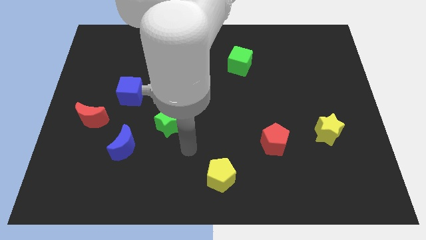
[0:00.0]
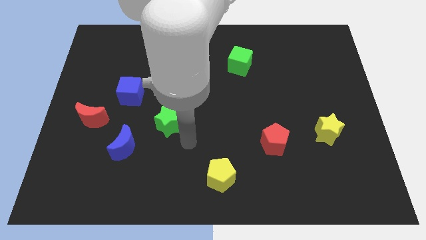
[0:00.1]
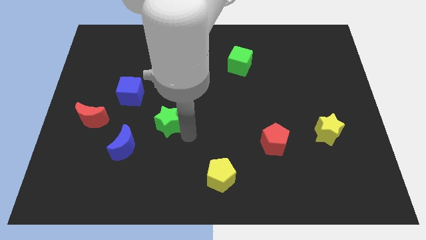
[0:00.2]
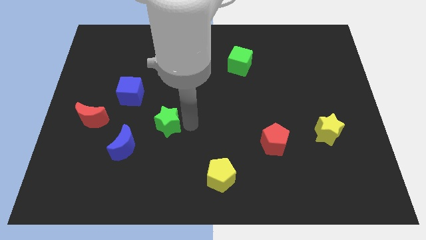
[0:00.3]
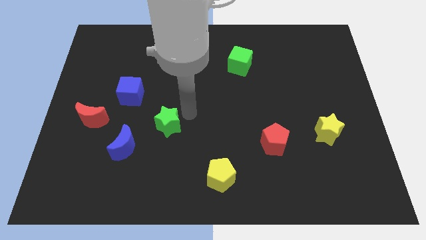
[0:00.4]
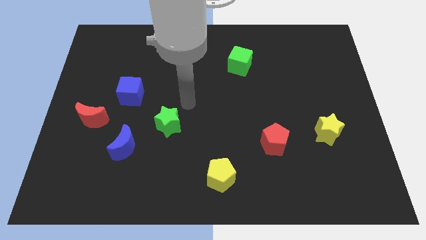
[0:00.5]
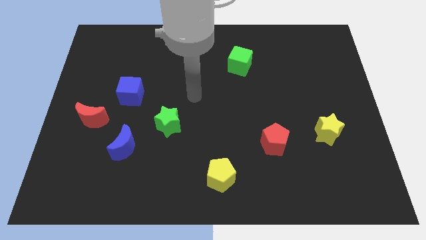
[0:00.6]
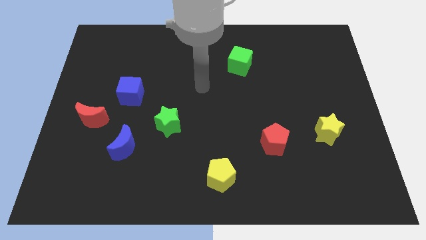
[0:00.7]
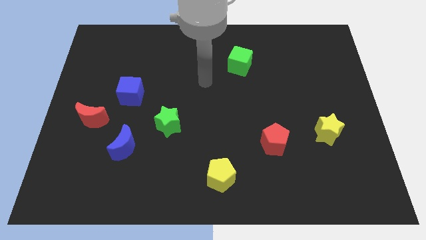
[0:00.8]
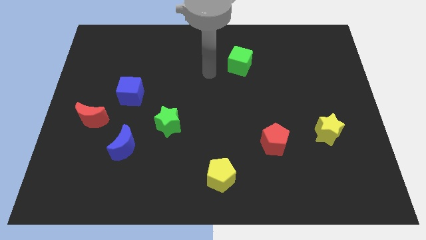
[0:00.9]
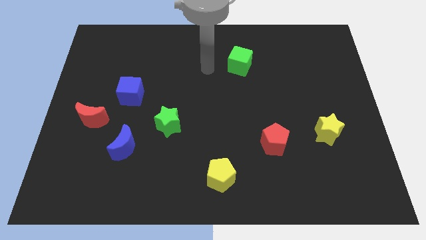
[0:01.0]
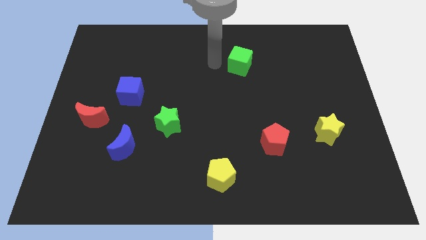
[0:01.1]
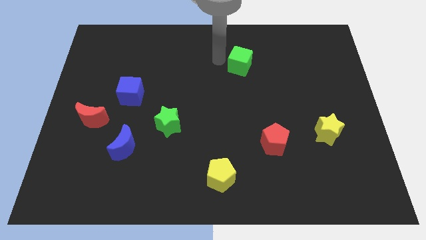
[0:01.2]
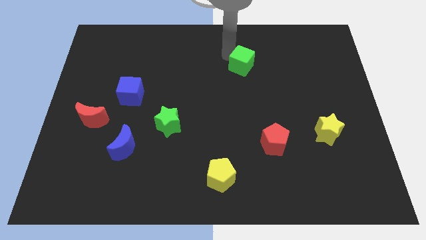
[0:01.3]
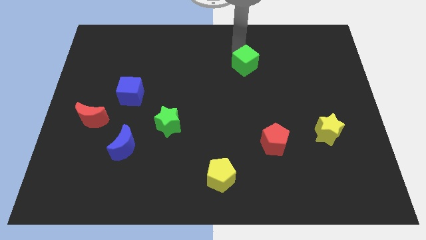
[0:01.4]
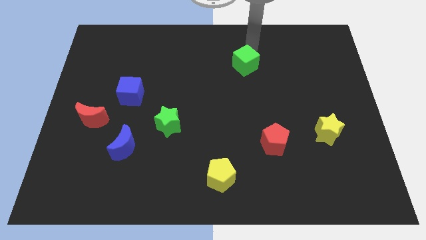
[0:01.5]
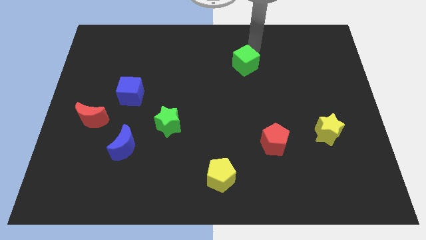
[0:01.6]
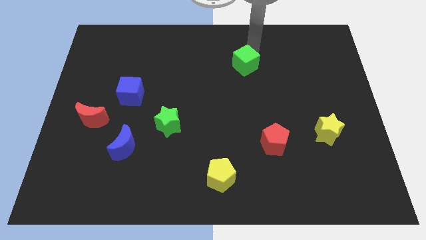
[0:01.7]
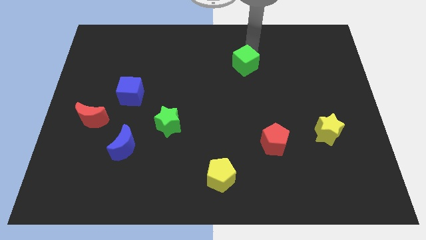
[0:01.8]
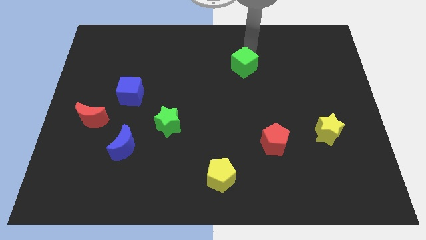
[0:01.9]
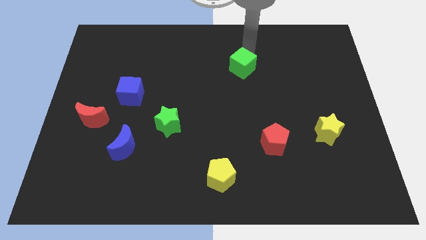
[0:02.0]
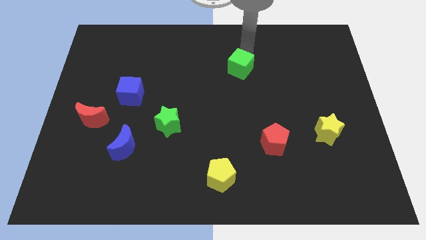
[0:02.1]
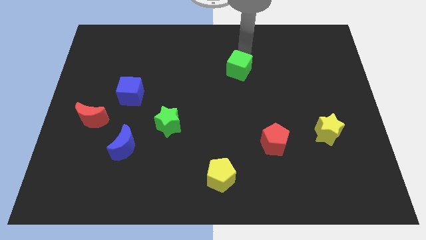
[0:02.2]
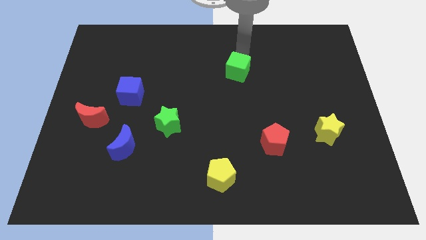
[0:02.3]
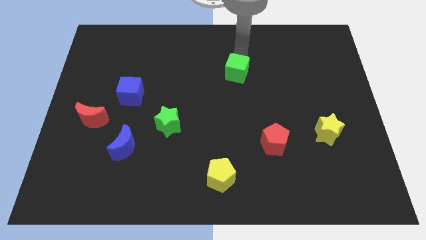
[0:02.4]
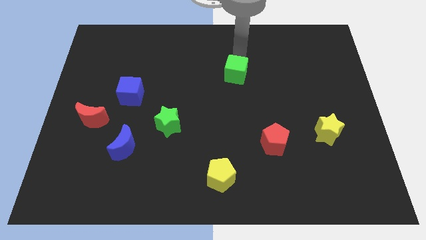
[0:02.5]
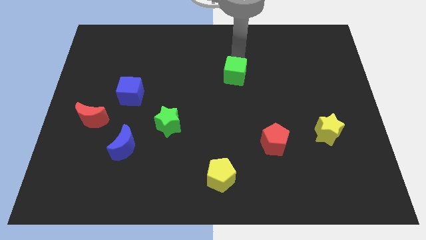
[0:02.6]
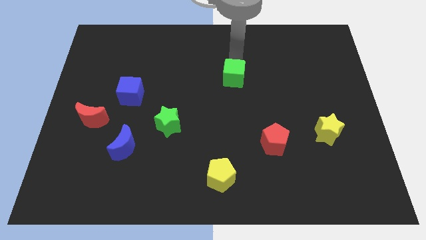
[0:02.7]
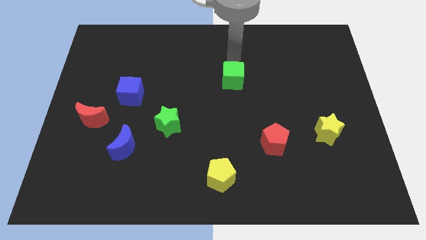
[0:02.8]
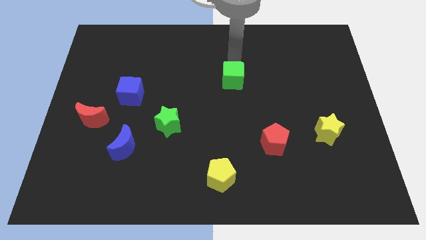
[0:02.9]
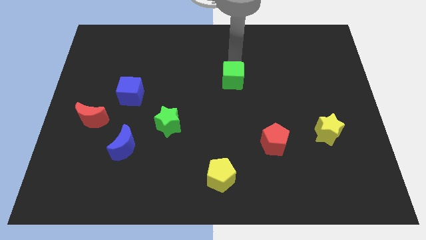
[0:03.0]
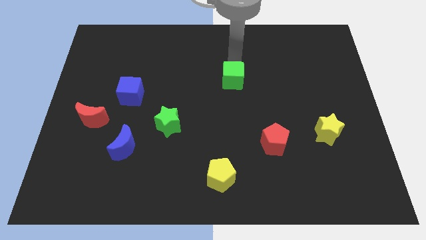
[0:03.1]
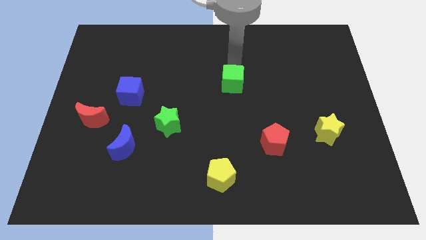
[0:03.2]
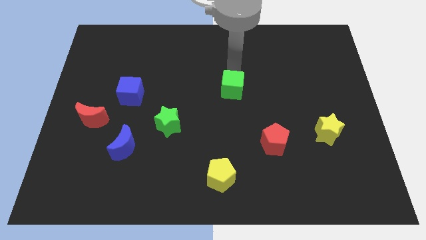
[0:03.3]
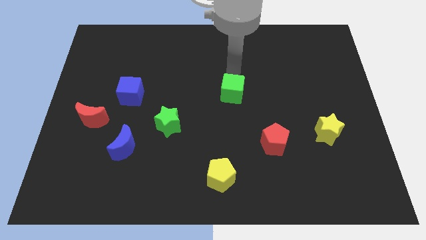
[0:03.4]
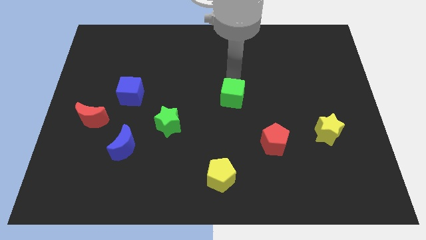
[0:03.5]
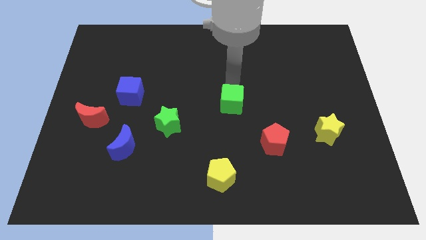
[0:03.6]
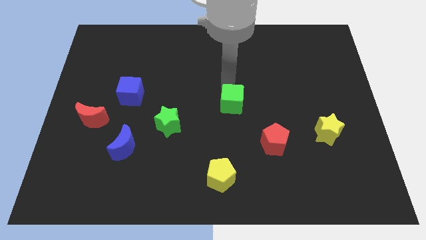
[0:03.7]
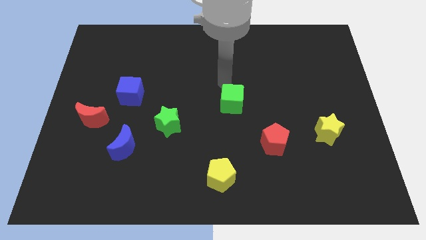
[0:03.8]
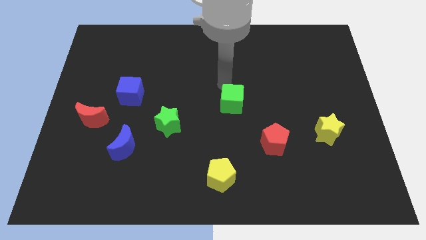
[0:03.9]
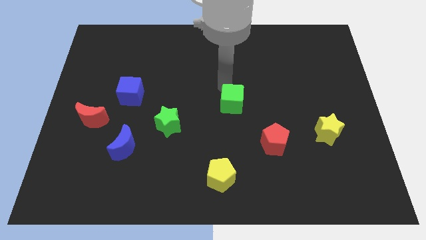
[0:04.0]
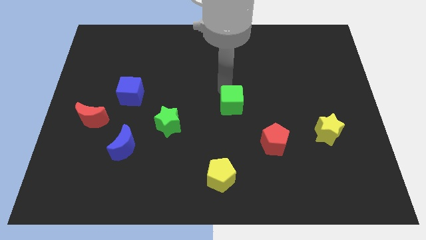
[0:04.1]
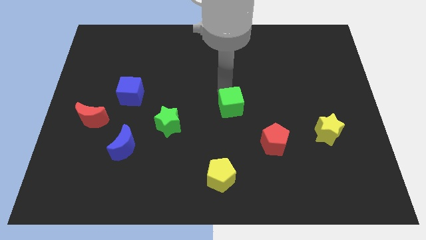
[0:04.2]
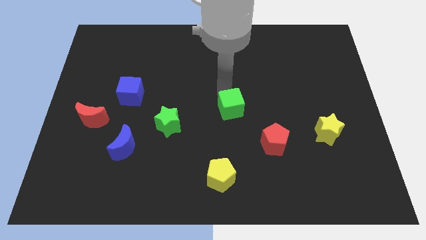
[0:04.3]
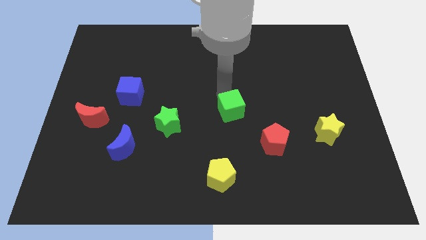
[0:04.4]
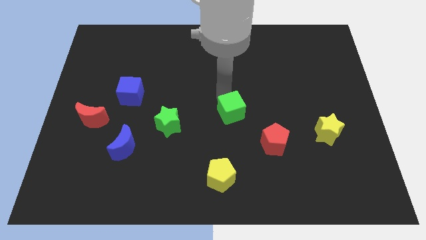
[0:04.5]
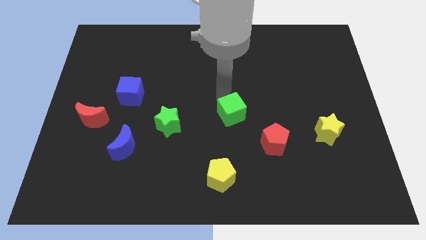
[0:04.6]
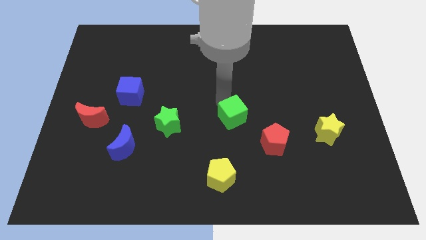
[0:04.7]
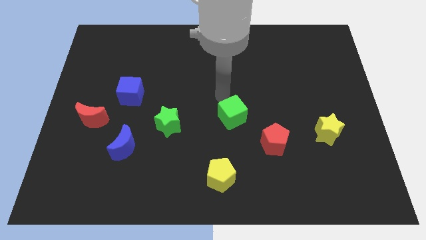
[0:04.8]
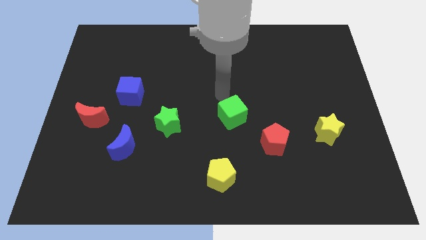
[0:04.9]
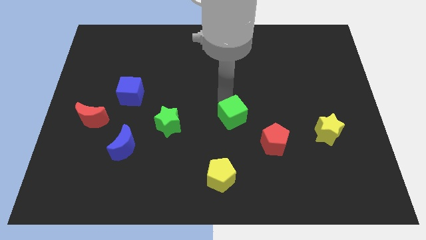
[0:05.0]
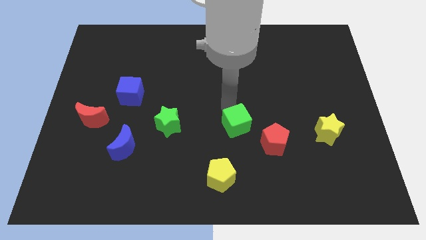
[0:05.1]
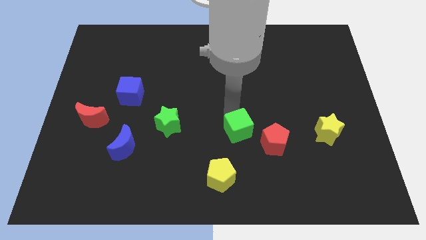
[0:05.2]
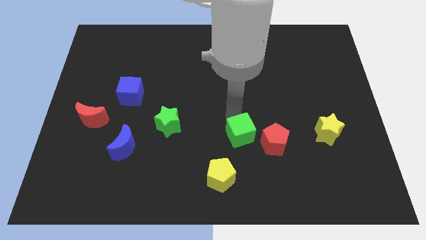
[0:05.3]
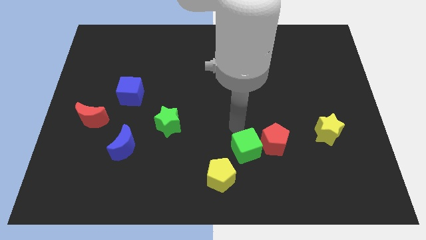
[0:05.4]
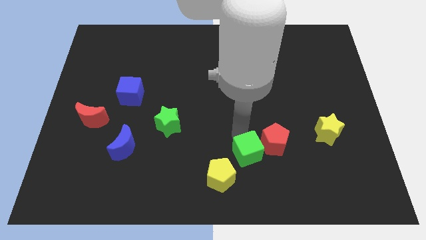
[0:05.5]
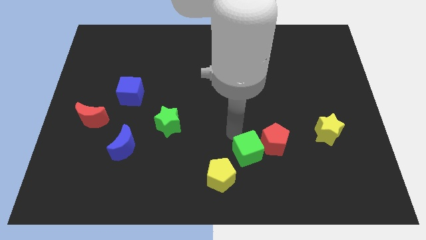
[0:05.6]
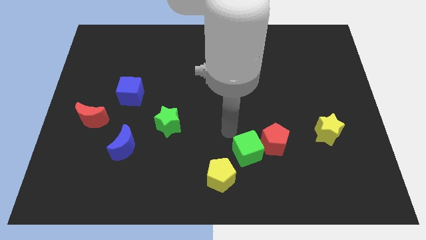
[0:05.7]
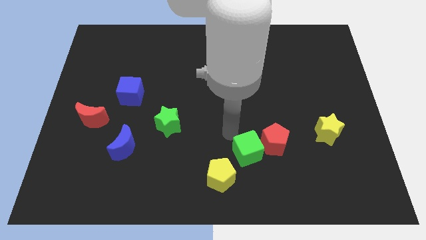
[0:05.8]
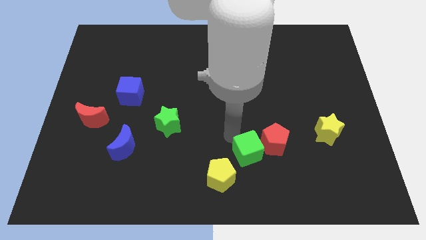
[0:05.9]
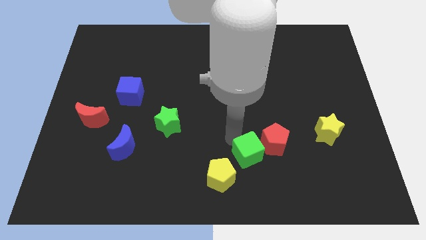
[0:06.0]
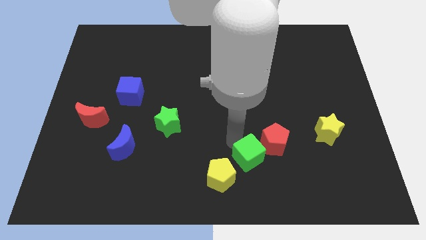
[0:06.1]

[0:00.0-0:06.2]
push the green cube to the right side of the yellow pentagon

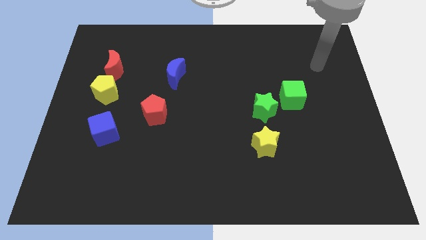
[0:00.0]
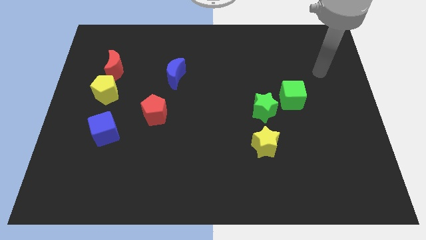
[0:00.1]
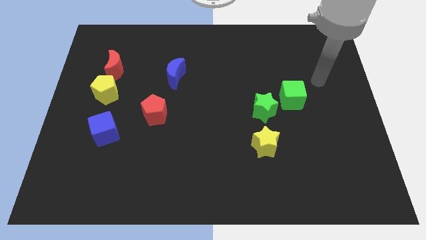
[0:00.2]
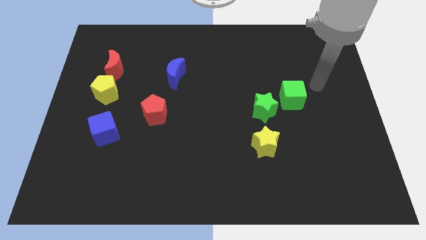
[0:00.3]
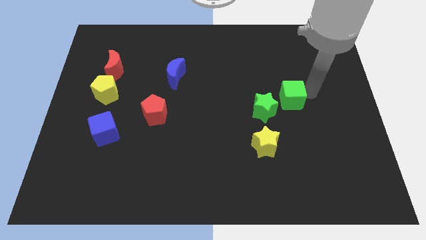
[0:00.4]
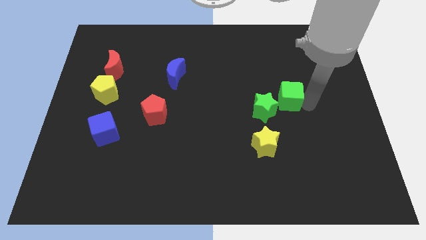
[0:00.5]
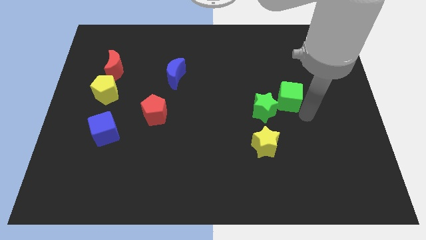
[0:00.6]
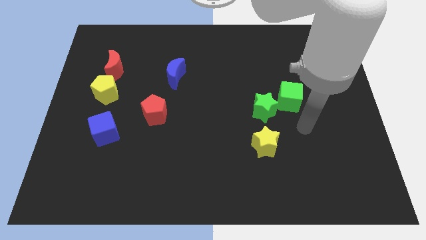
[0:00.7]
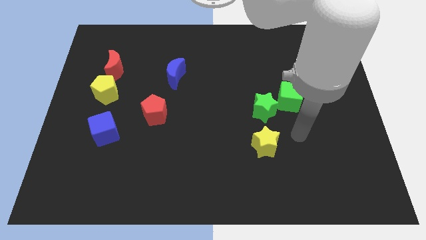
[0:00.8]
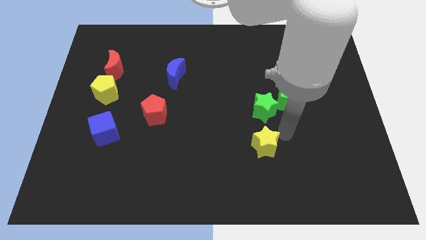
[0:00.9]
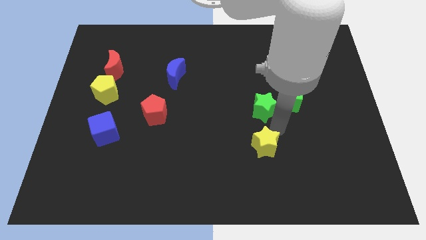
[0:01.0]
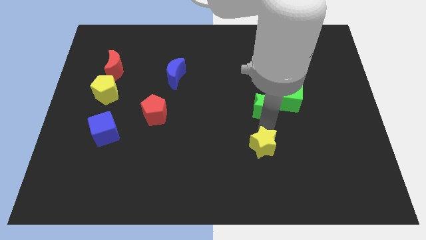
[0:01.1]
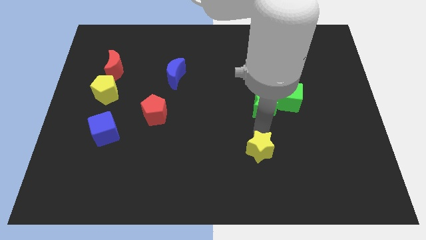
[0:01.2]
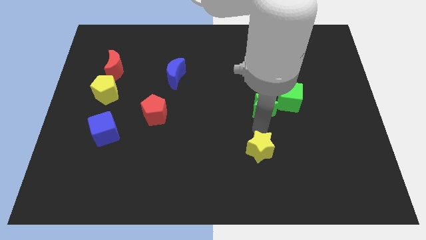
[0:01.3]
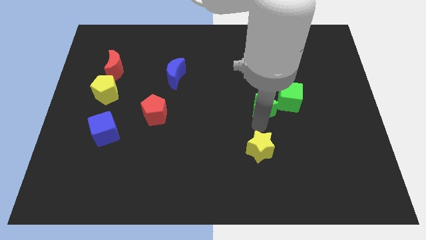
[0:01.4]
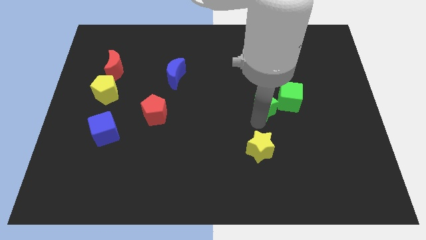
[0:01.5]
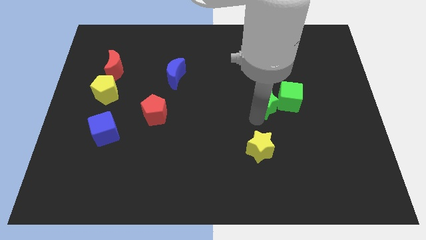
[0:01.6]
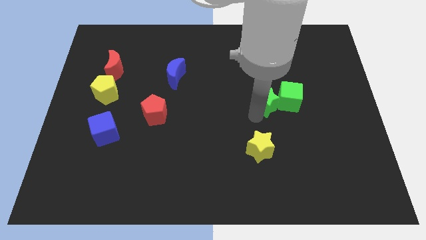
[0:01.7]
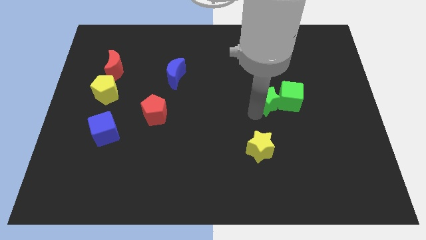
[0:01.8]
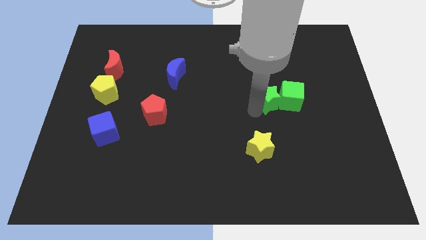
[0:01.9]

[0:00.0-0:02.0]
put the green star to the top left of the green cube
